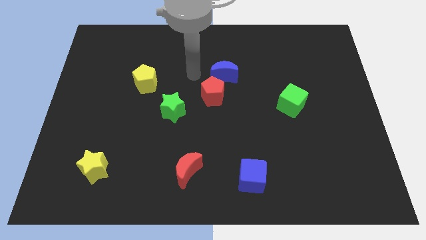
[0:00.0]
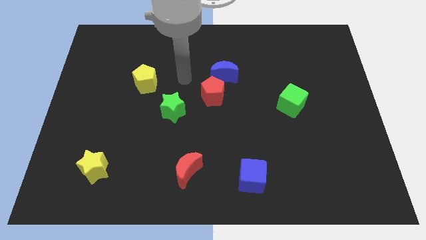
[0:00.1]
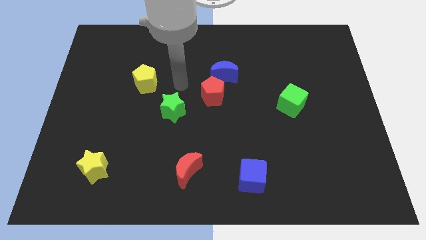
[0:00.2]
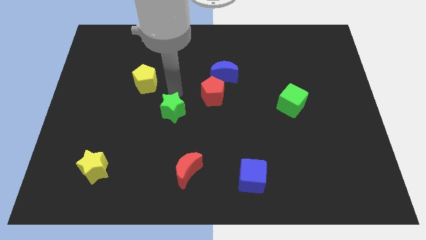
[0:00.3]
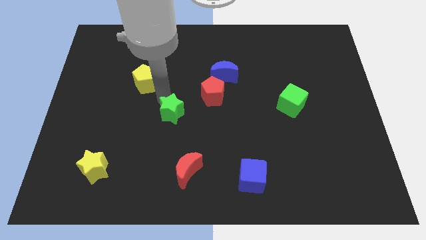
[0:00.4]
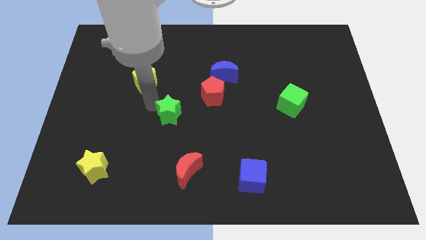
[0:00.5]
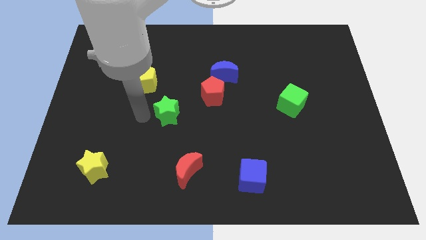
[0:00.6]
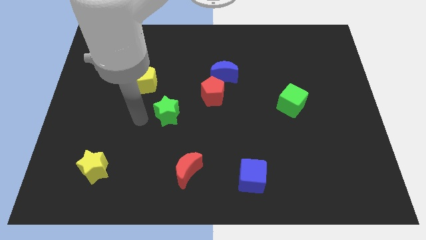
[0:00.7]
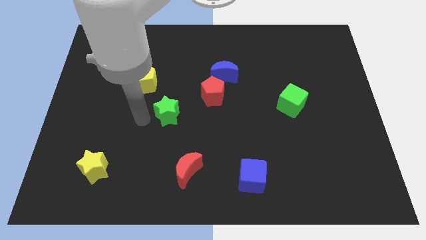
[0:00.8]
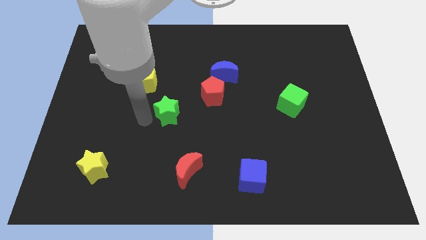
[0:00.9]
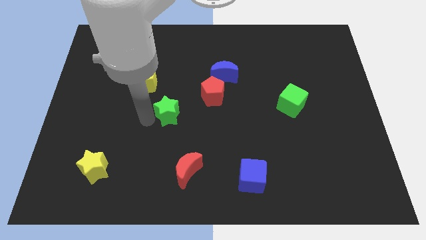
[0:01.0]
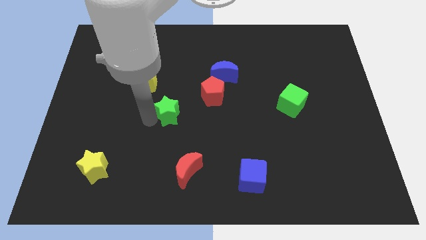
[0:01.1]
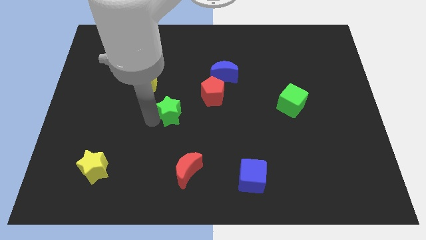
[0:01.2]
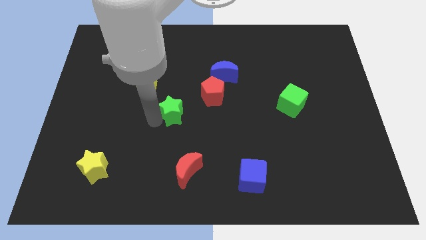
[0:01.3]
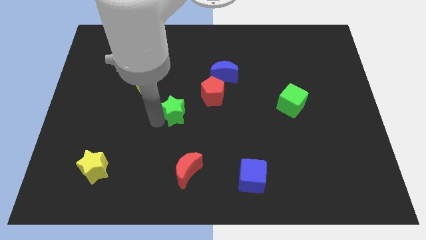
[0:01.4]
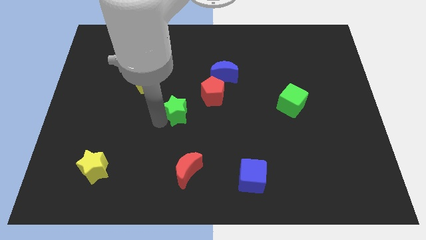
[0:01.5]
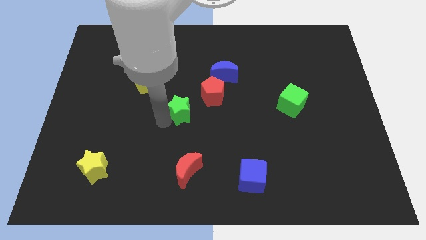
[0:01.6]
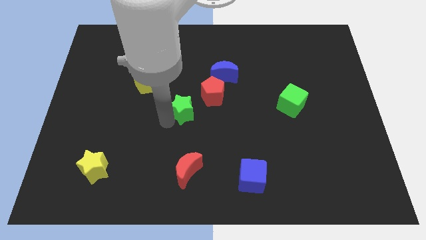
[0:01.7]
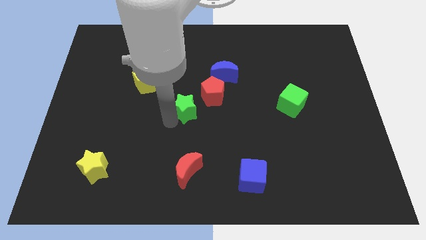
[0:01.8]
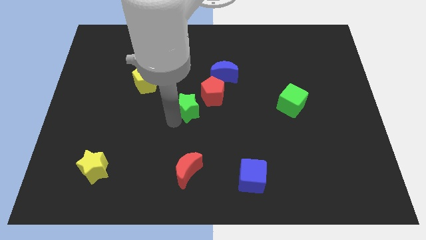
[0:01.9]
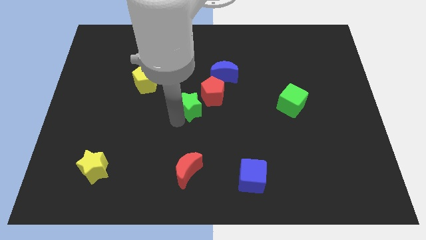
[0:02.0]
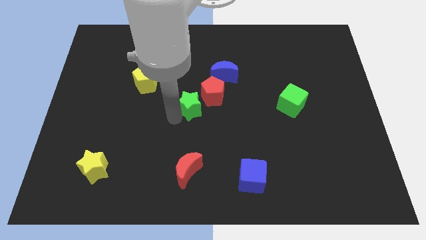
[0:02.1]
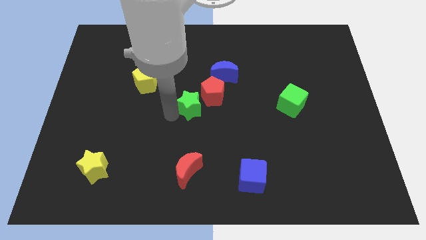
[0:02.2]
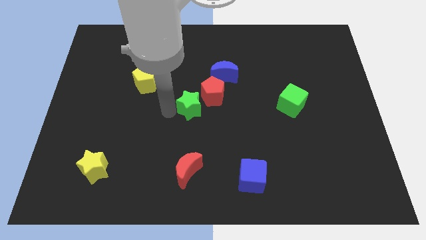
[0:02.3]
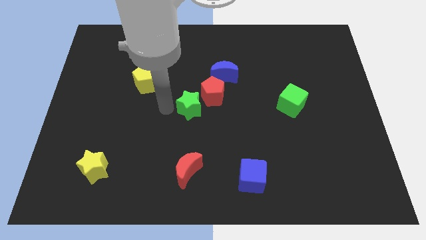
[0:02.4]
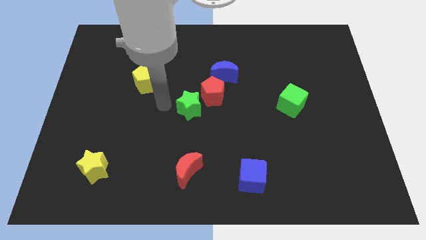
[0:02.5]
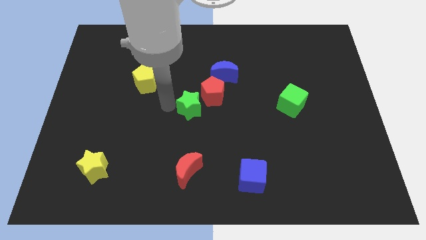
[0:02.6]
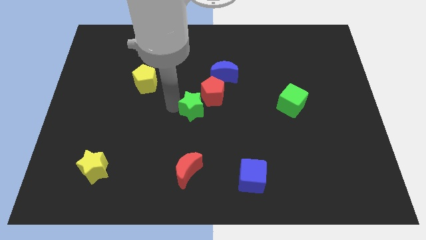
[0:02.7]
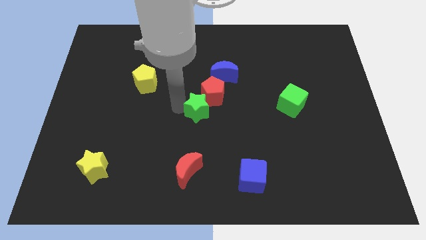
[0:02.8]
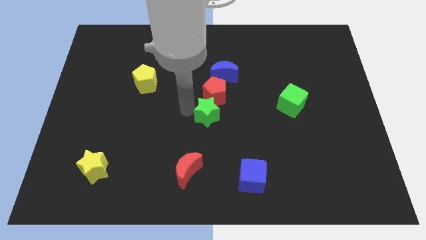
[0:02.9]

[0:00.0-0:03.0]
push the green star to the right a bit

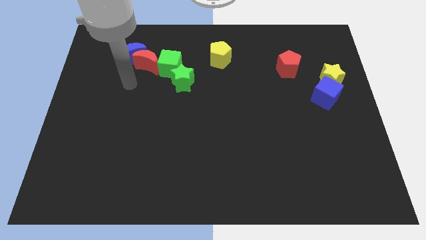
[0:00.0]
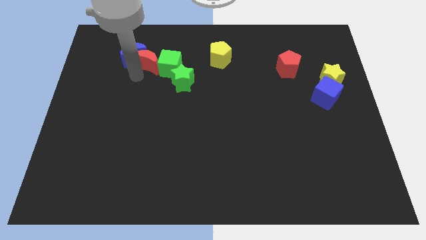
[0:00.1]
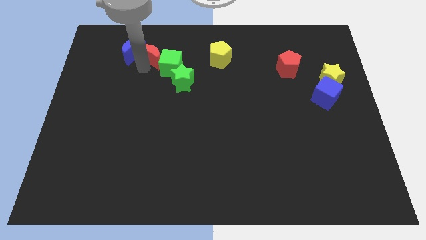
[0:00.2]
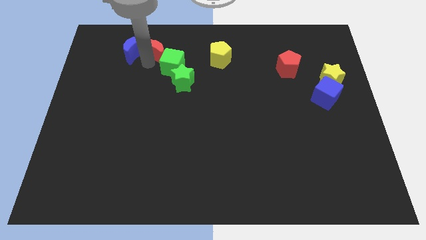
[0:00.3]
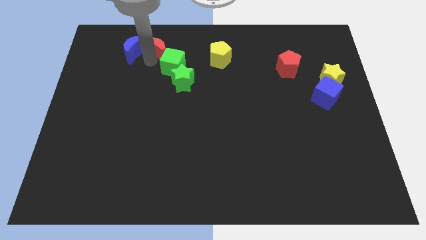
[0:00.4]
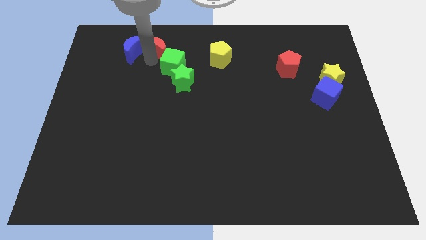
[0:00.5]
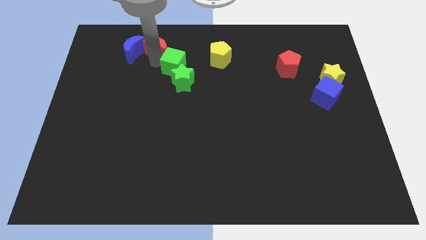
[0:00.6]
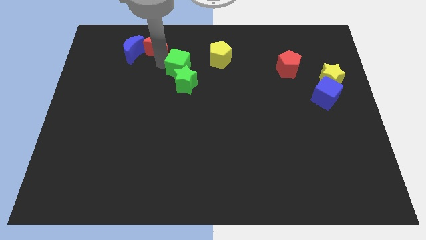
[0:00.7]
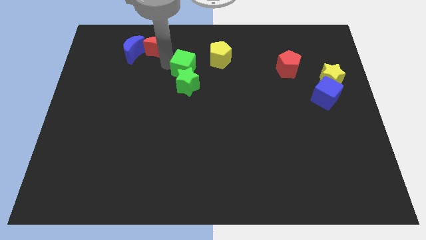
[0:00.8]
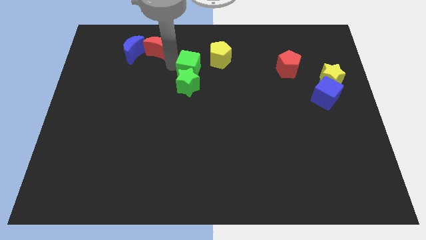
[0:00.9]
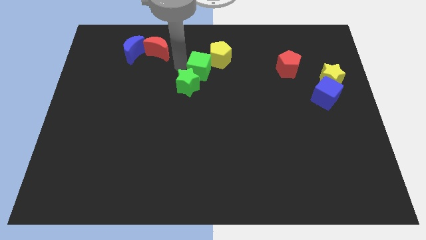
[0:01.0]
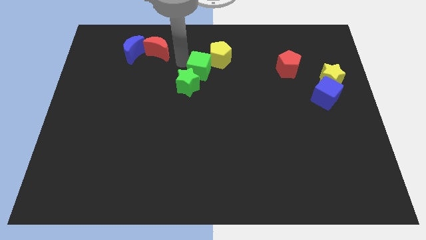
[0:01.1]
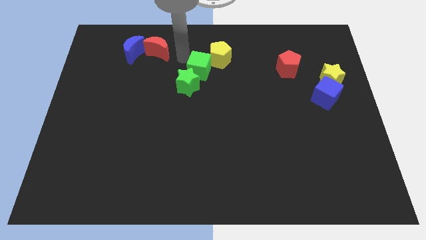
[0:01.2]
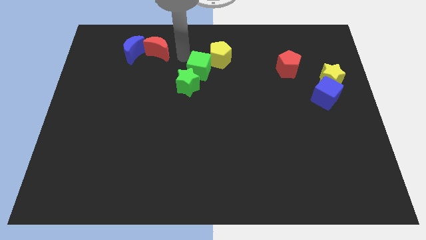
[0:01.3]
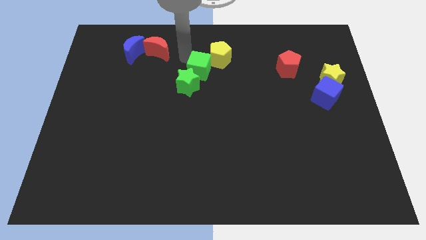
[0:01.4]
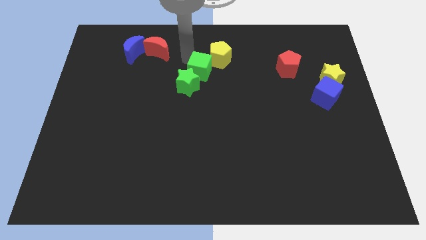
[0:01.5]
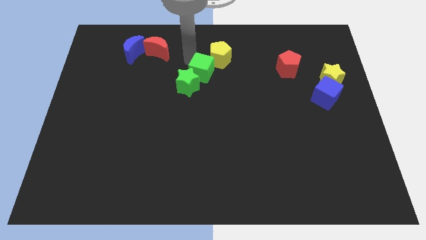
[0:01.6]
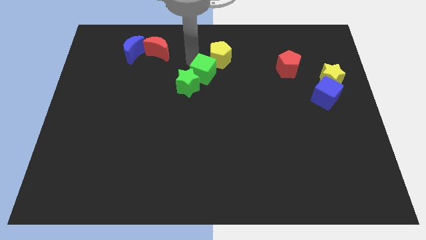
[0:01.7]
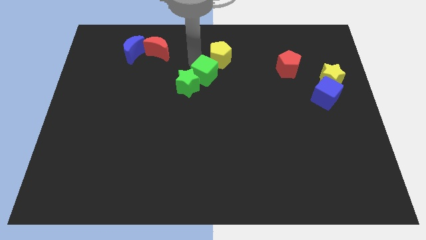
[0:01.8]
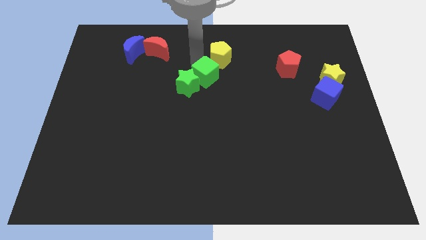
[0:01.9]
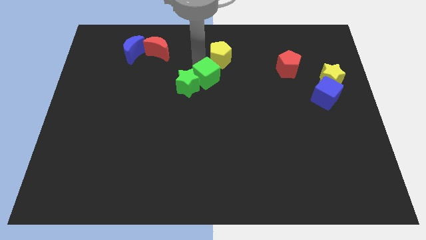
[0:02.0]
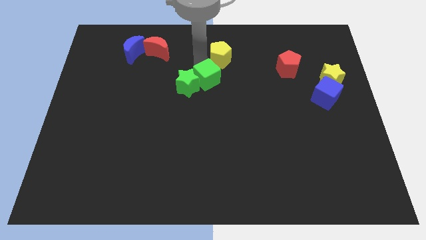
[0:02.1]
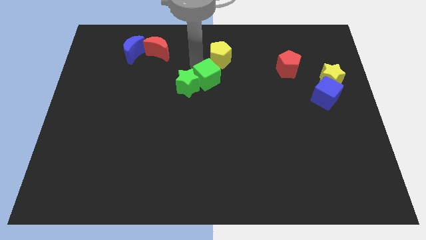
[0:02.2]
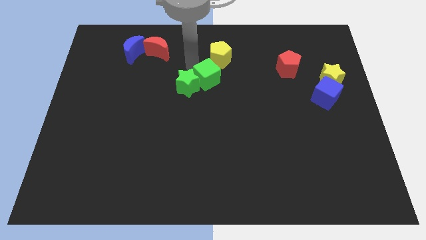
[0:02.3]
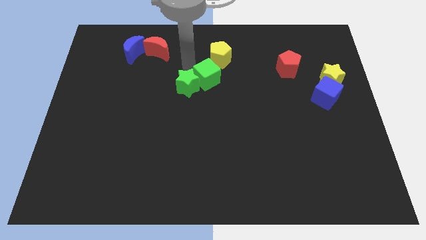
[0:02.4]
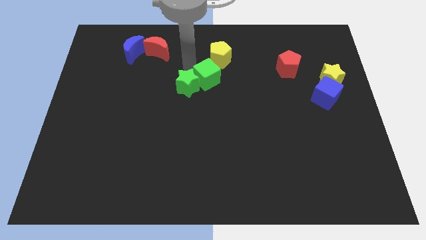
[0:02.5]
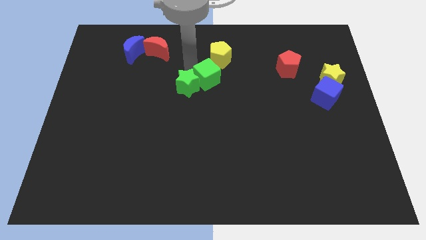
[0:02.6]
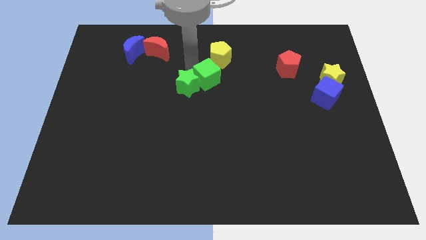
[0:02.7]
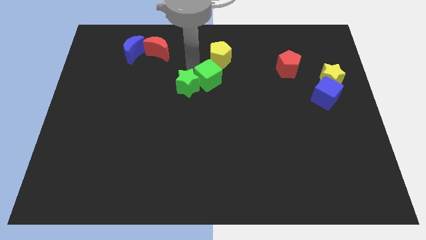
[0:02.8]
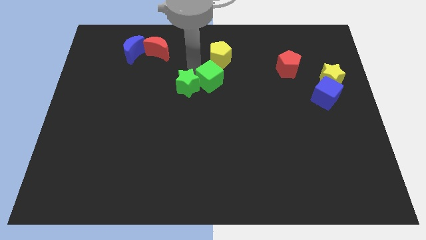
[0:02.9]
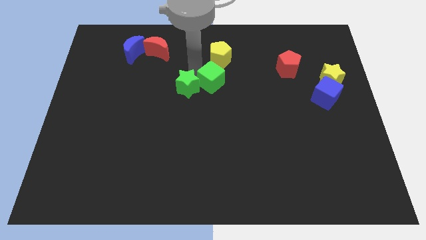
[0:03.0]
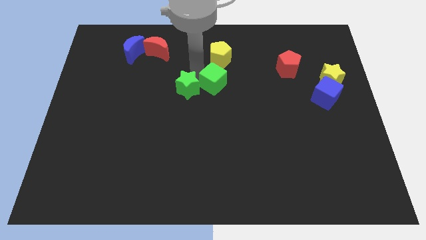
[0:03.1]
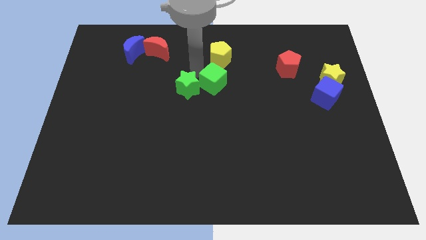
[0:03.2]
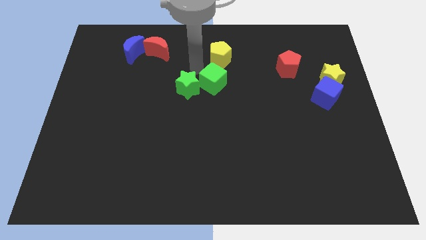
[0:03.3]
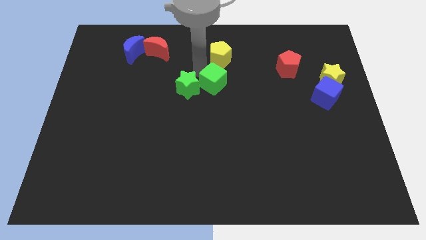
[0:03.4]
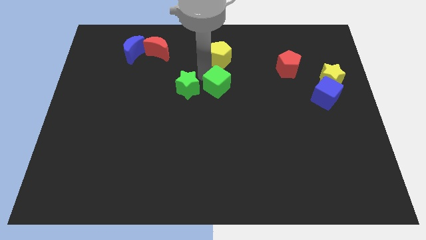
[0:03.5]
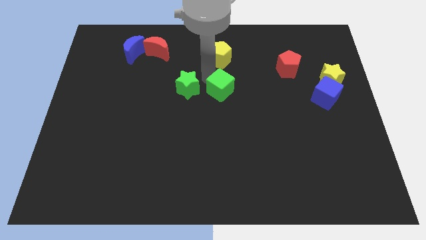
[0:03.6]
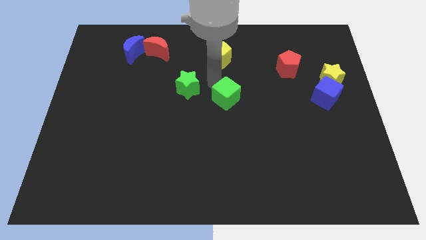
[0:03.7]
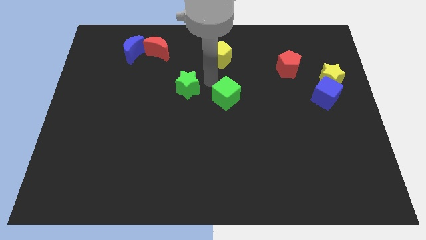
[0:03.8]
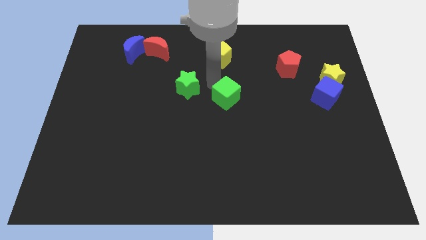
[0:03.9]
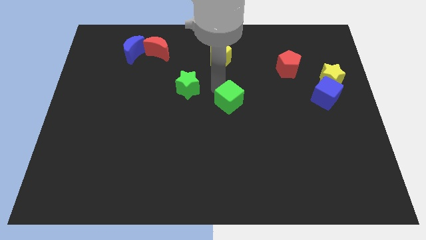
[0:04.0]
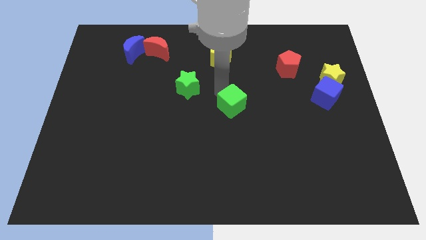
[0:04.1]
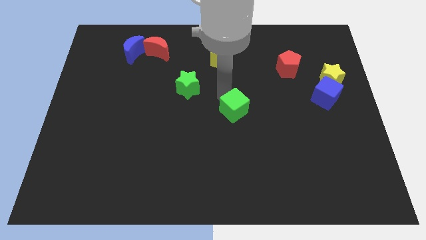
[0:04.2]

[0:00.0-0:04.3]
move the green cube down and right diagonally

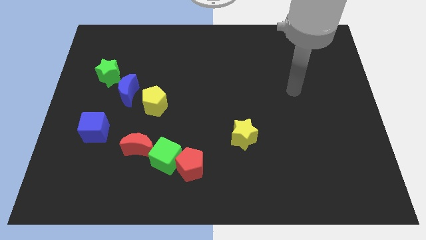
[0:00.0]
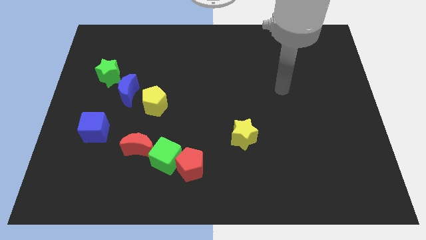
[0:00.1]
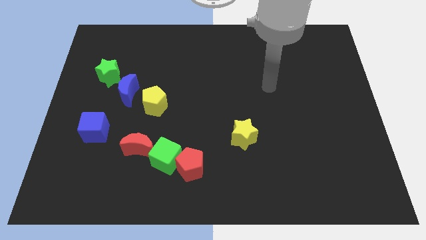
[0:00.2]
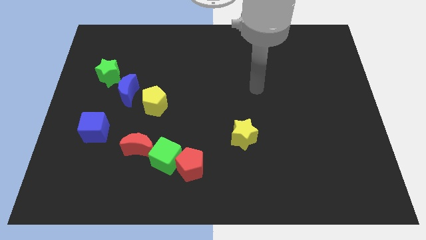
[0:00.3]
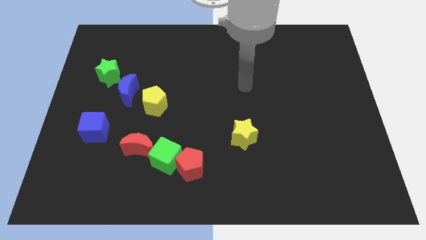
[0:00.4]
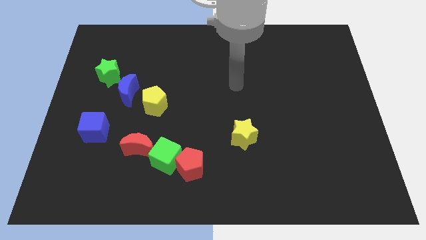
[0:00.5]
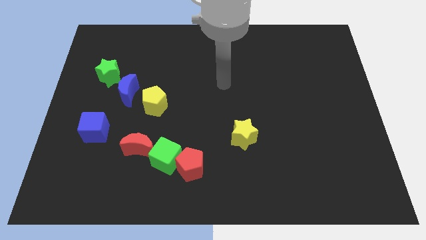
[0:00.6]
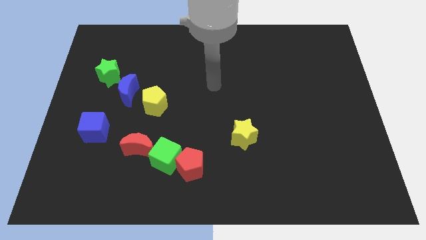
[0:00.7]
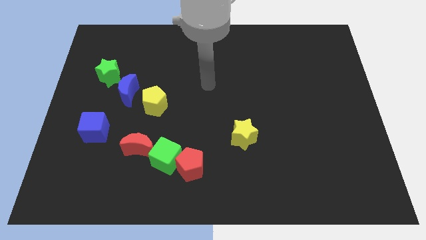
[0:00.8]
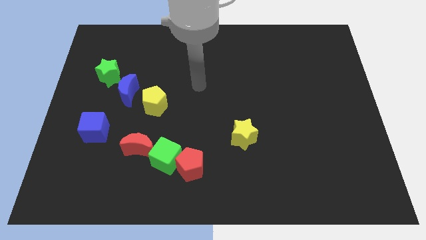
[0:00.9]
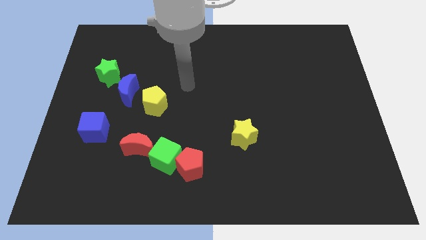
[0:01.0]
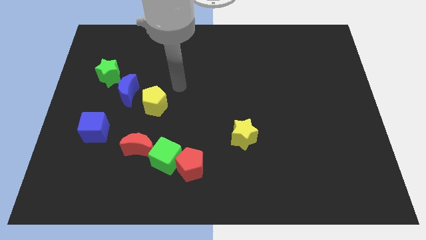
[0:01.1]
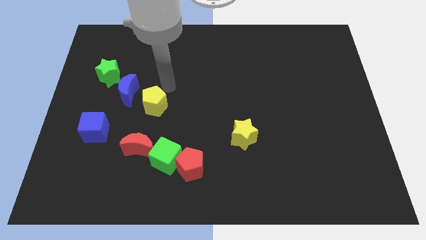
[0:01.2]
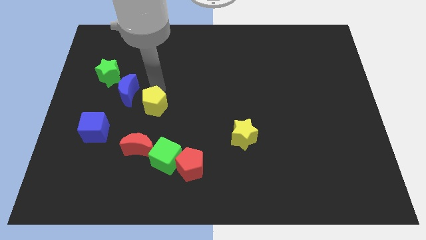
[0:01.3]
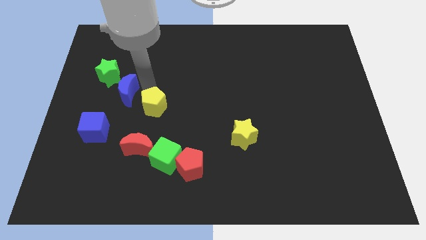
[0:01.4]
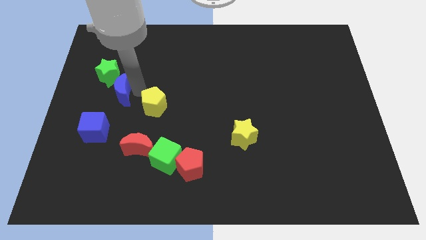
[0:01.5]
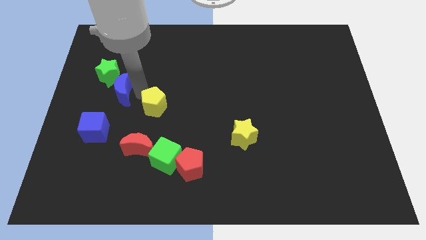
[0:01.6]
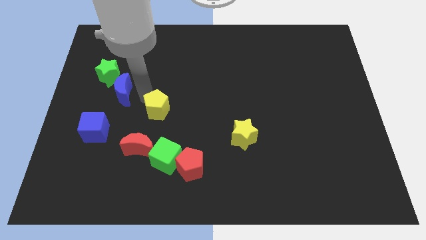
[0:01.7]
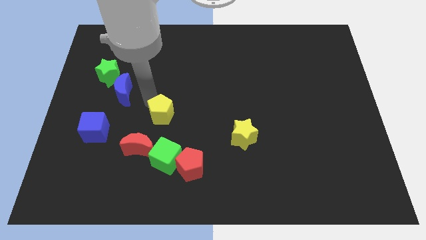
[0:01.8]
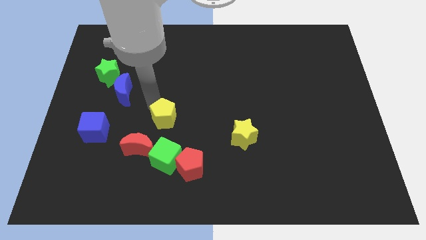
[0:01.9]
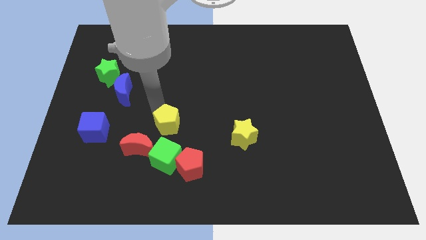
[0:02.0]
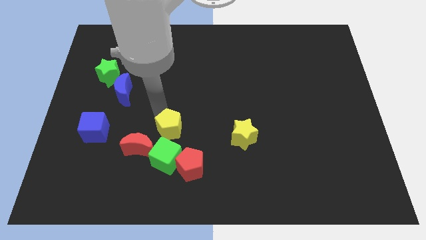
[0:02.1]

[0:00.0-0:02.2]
move the yellow pentagon diagonally down and right somewhat
